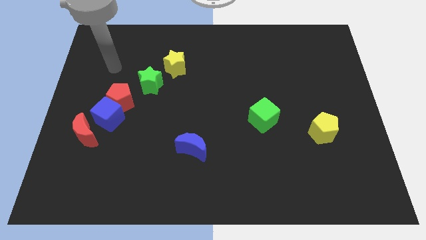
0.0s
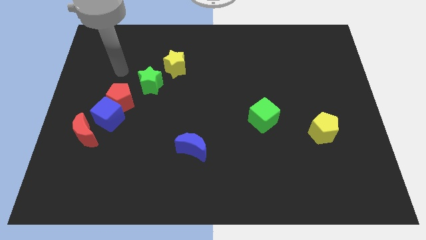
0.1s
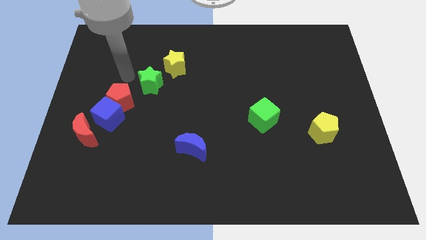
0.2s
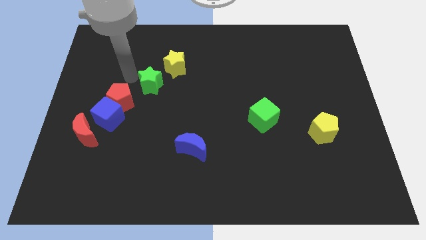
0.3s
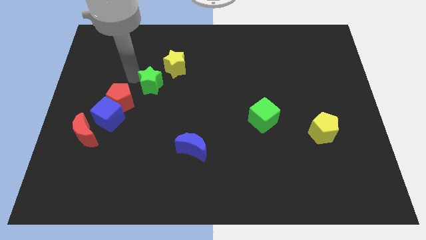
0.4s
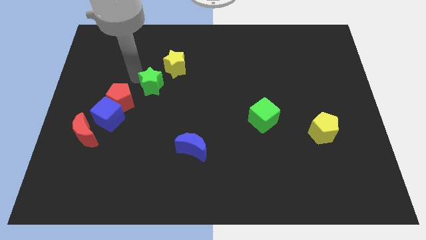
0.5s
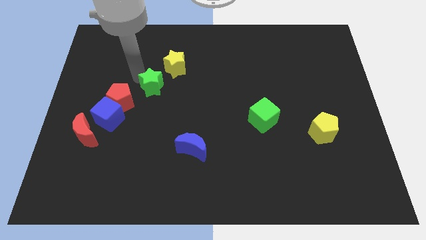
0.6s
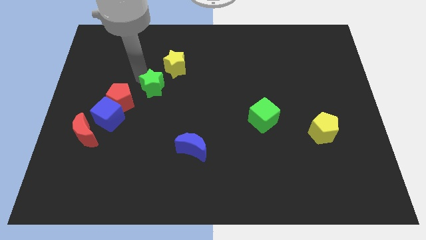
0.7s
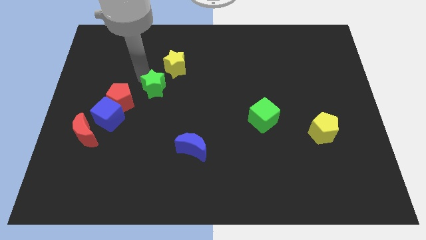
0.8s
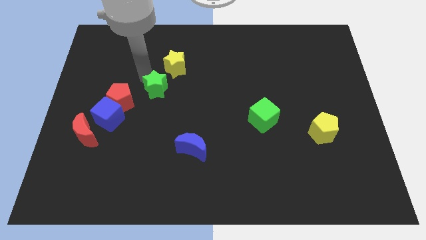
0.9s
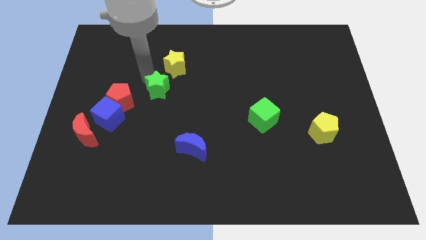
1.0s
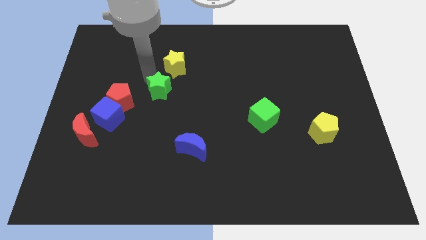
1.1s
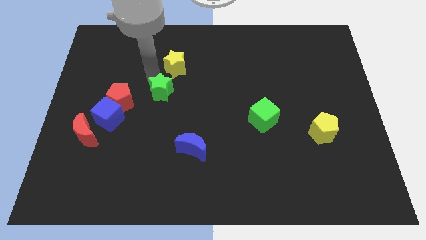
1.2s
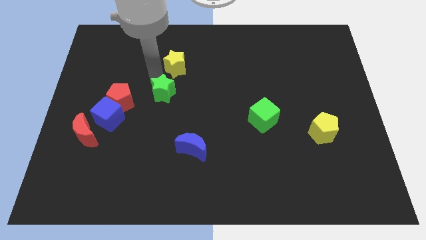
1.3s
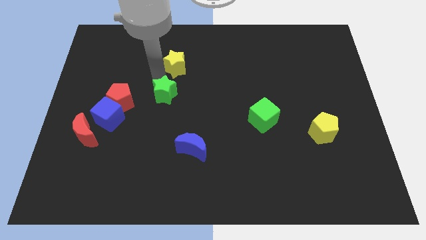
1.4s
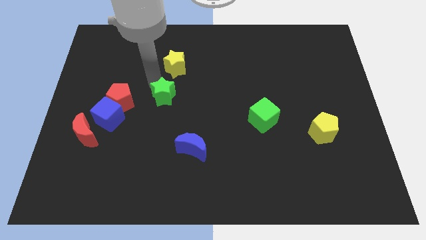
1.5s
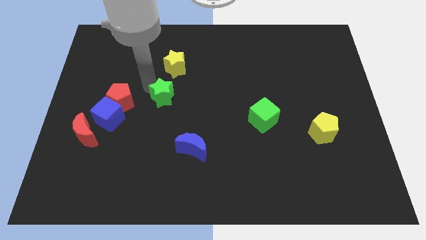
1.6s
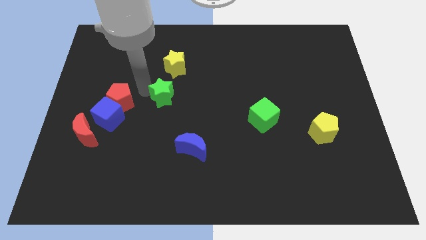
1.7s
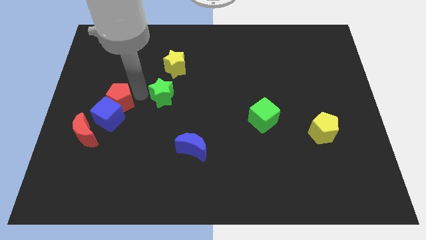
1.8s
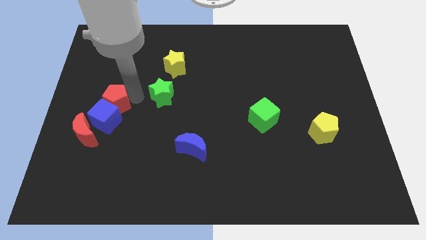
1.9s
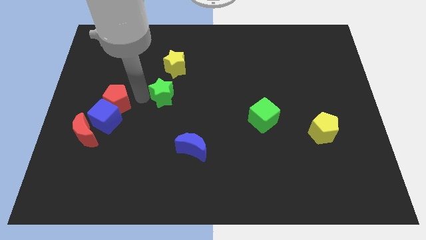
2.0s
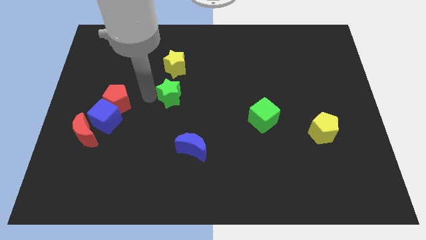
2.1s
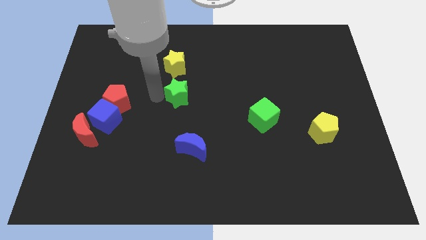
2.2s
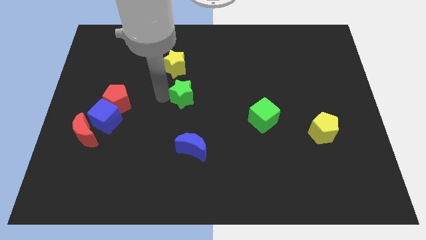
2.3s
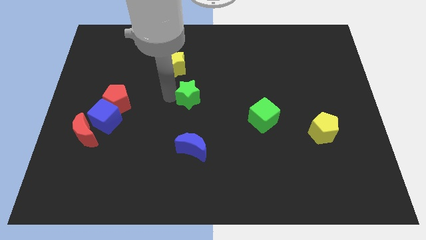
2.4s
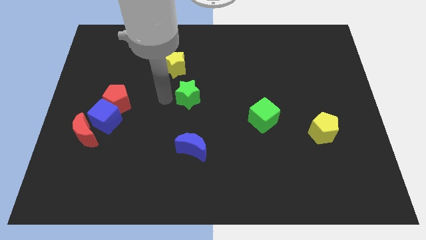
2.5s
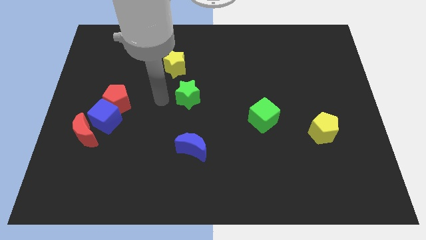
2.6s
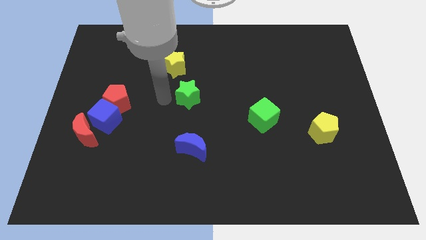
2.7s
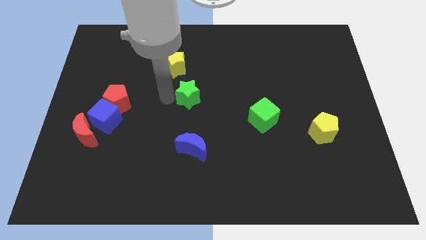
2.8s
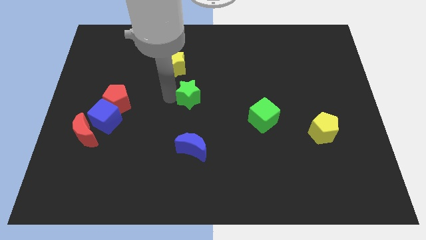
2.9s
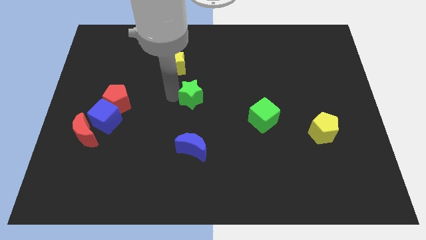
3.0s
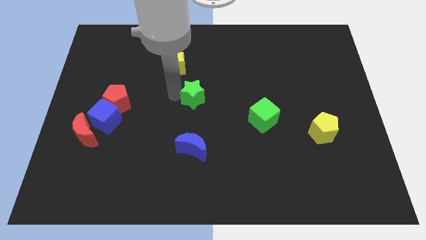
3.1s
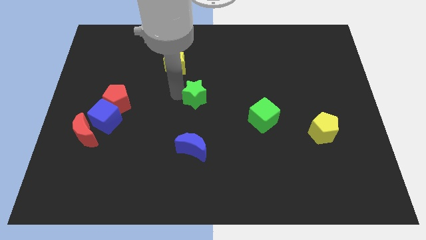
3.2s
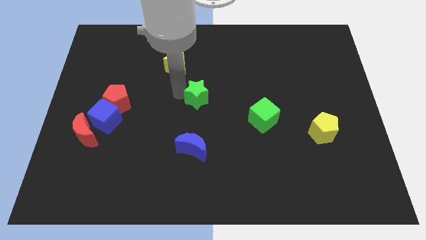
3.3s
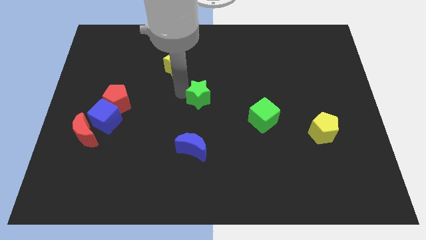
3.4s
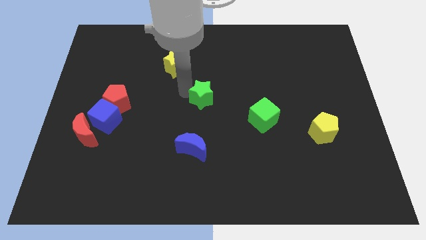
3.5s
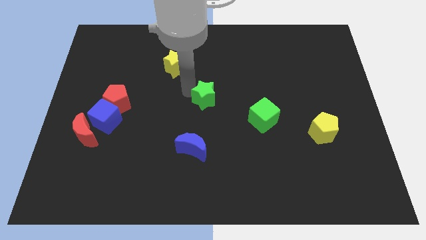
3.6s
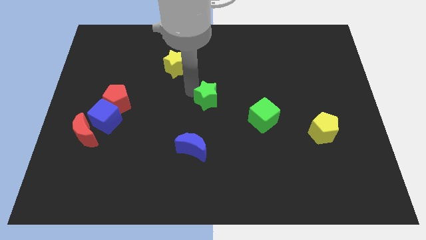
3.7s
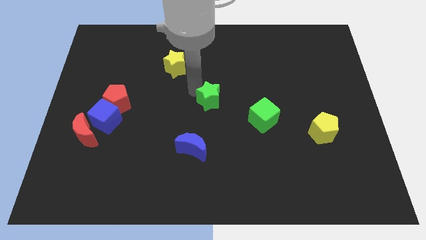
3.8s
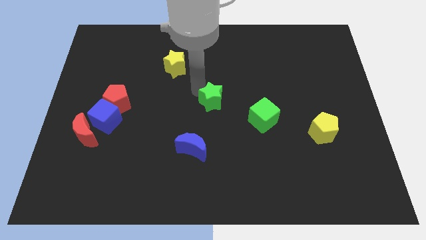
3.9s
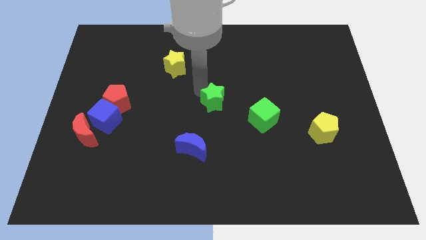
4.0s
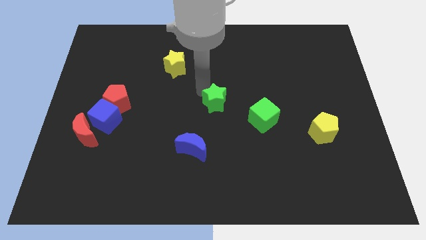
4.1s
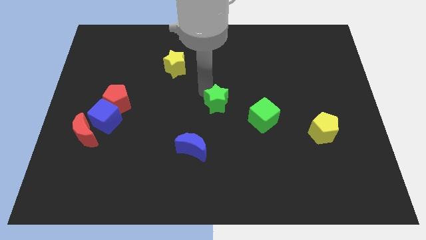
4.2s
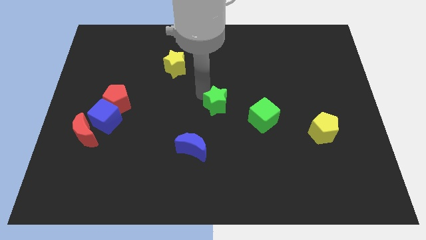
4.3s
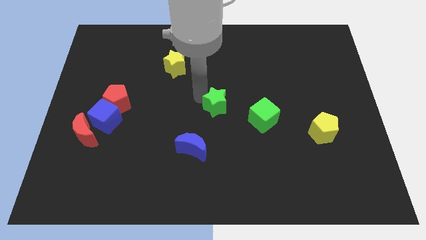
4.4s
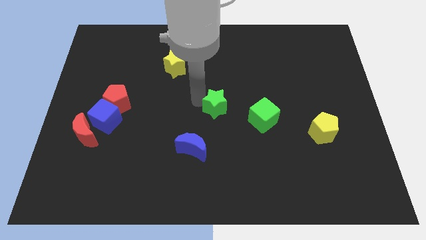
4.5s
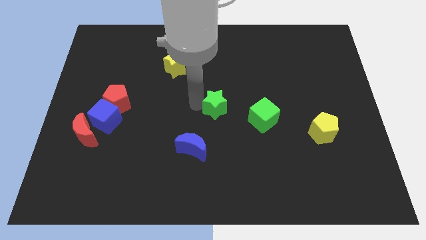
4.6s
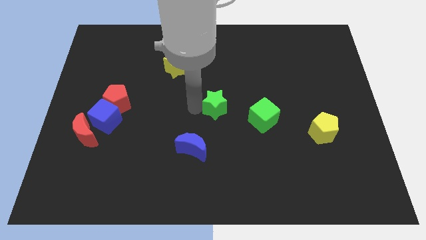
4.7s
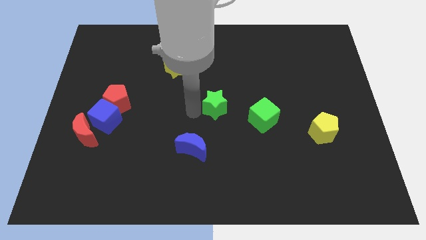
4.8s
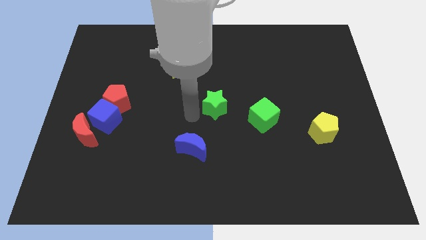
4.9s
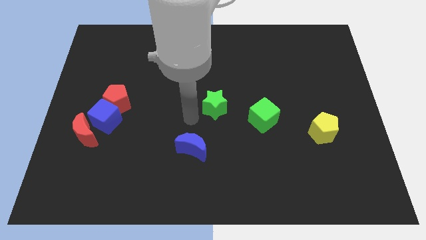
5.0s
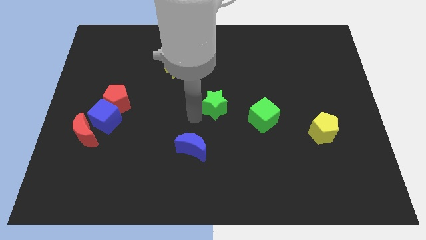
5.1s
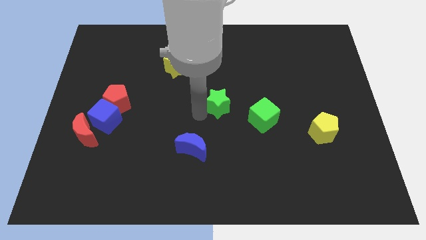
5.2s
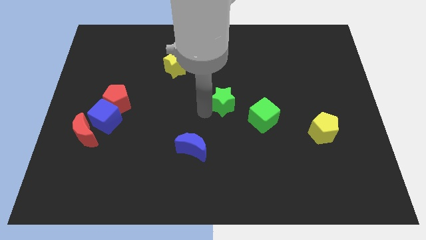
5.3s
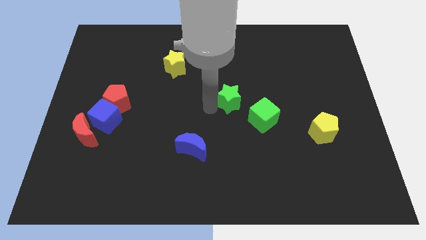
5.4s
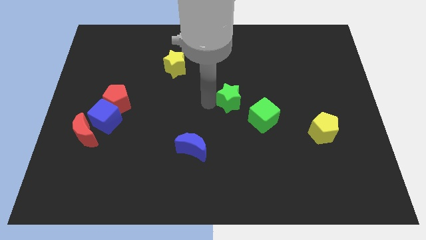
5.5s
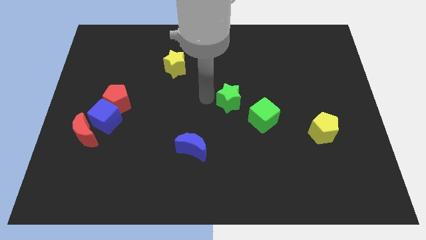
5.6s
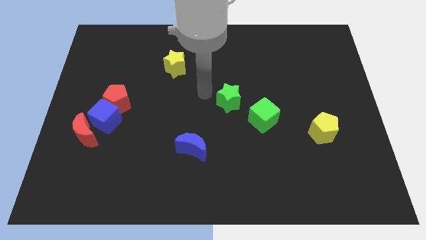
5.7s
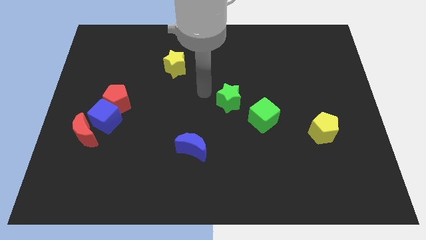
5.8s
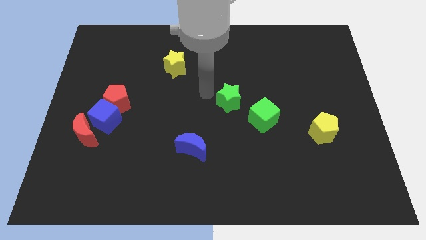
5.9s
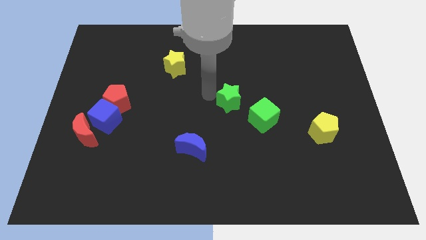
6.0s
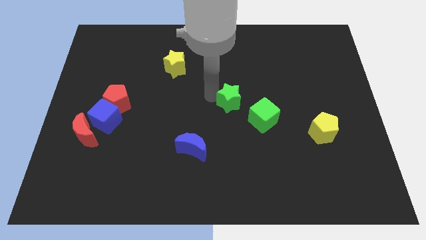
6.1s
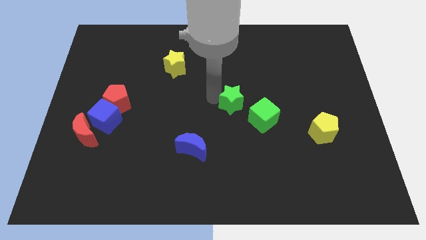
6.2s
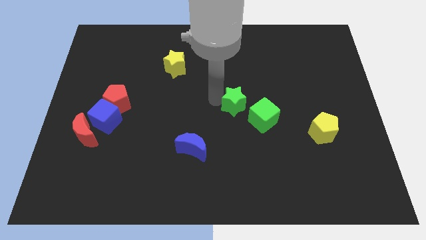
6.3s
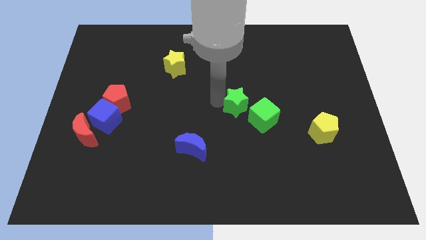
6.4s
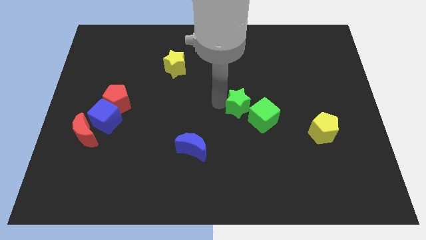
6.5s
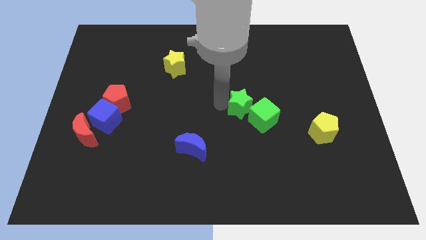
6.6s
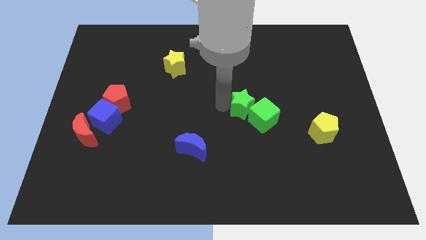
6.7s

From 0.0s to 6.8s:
move the green star next to the green cube
